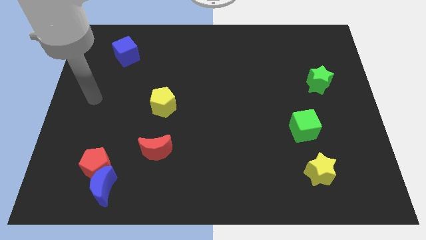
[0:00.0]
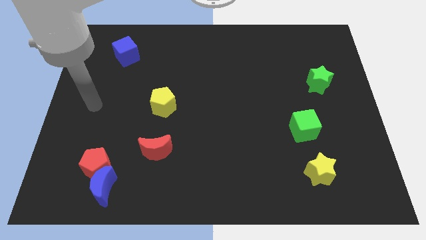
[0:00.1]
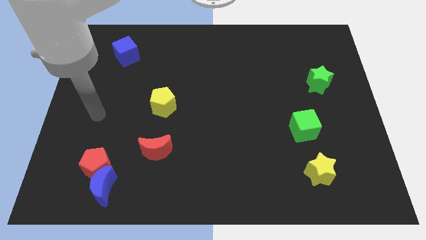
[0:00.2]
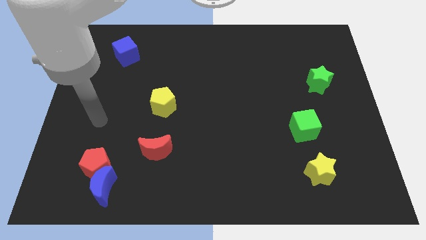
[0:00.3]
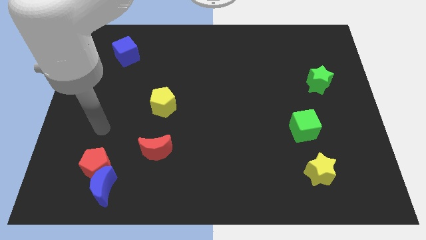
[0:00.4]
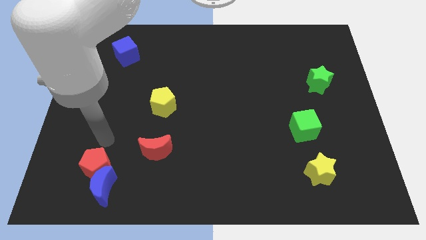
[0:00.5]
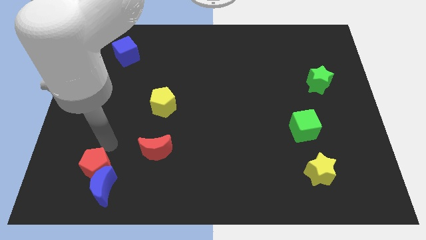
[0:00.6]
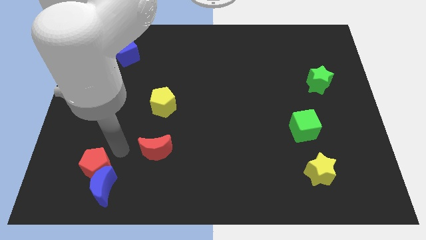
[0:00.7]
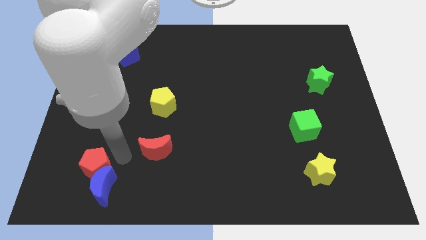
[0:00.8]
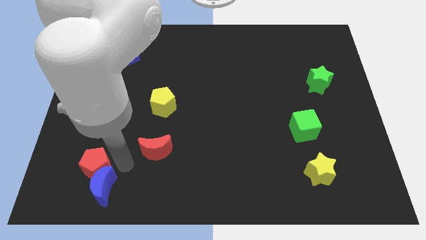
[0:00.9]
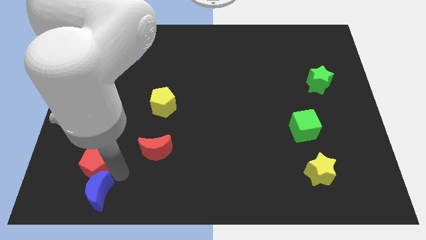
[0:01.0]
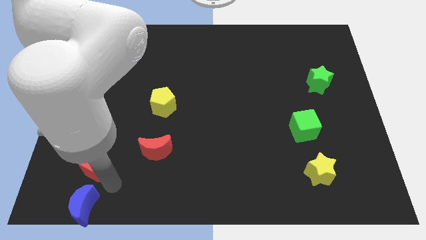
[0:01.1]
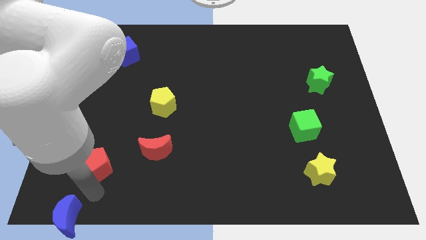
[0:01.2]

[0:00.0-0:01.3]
separate the red pentagon from the blue moon

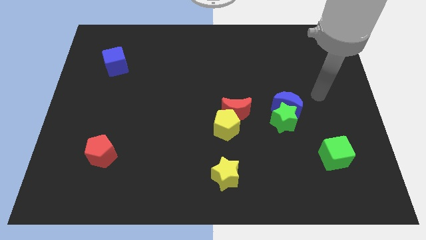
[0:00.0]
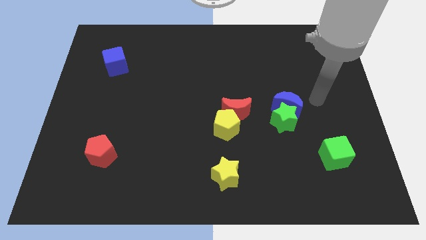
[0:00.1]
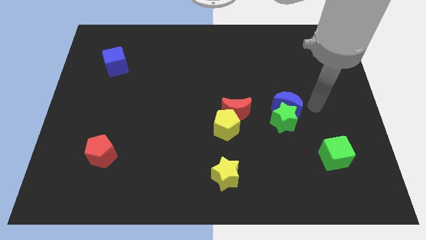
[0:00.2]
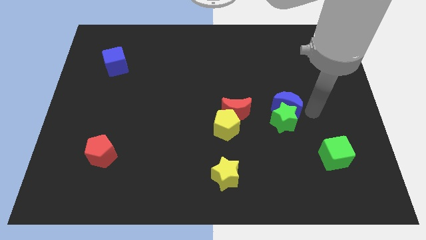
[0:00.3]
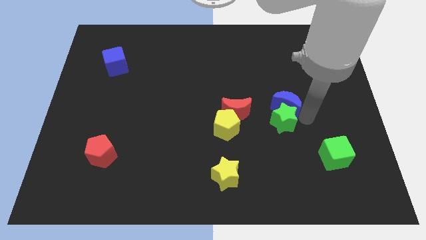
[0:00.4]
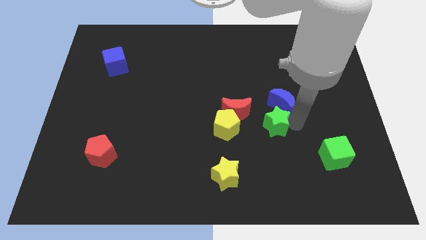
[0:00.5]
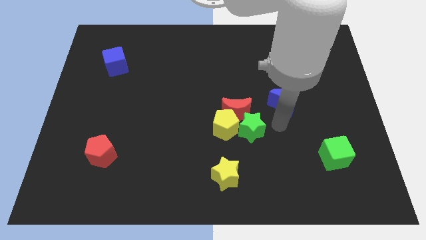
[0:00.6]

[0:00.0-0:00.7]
move the blue moon away from the green star

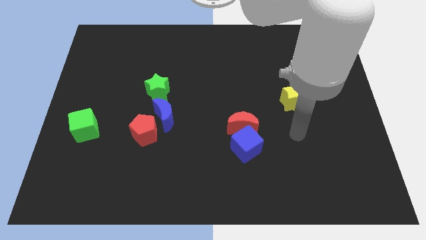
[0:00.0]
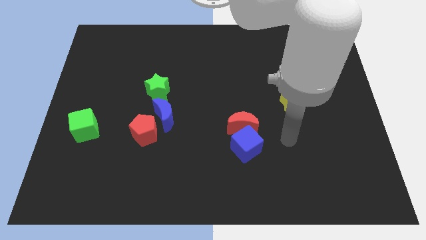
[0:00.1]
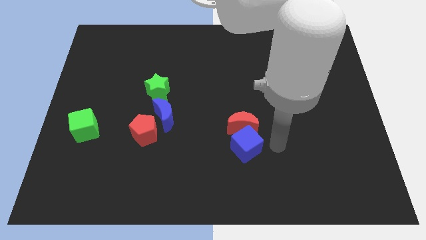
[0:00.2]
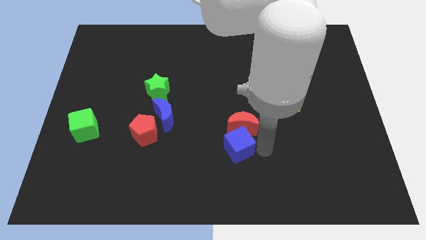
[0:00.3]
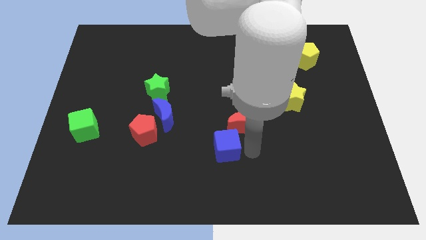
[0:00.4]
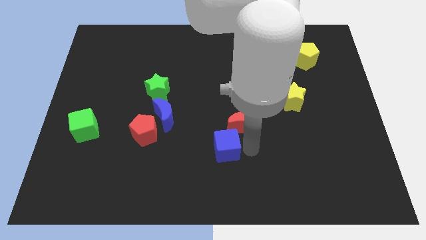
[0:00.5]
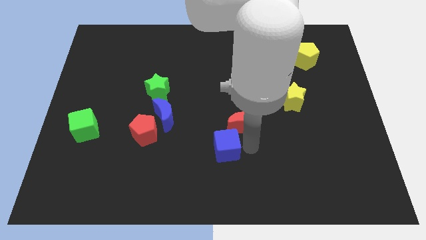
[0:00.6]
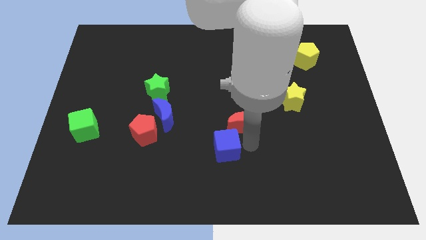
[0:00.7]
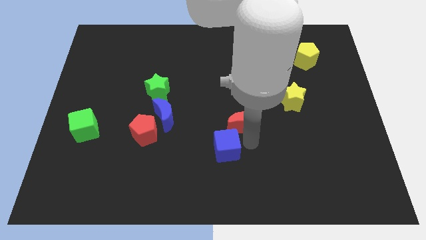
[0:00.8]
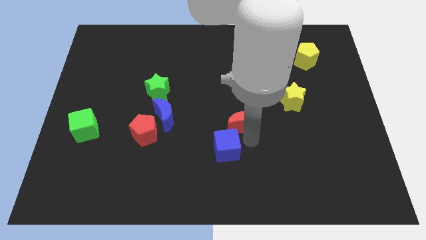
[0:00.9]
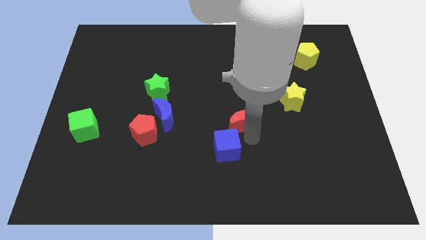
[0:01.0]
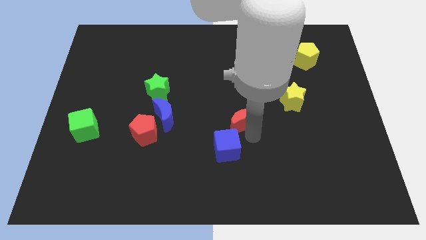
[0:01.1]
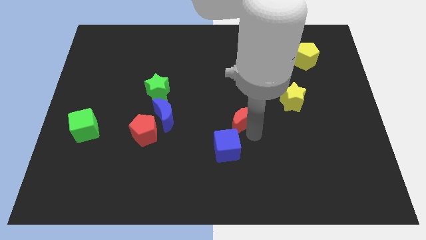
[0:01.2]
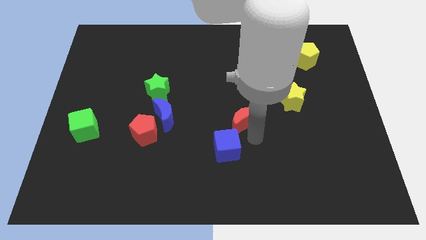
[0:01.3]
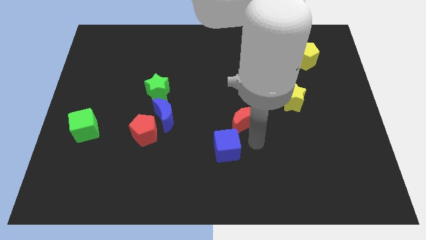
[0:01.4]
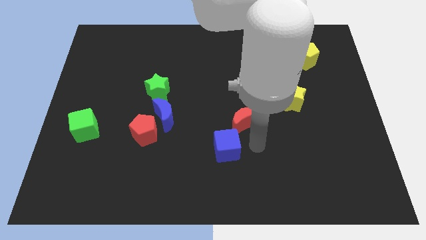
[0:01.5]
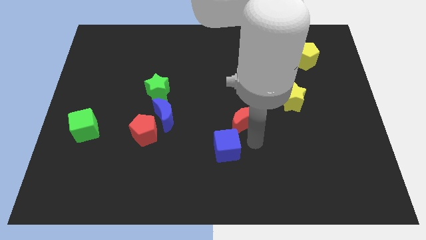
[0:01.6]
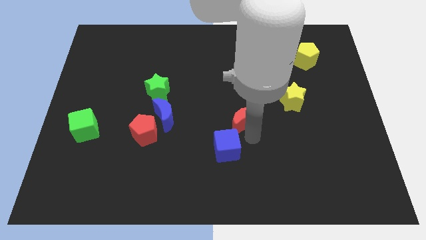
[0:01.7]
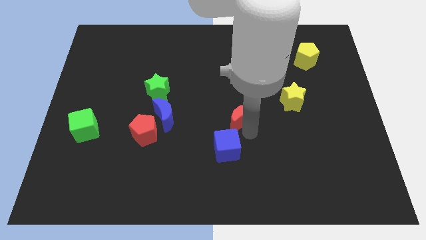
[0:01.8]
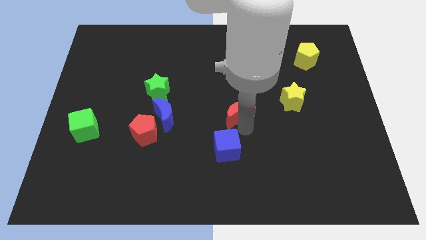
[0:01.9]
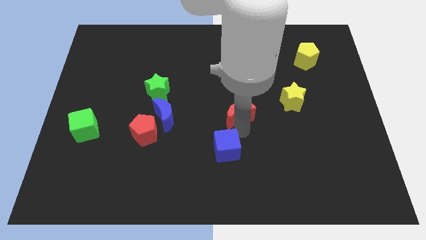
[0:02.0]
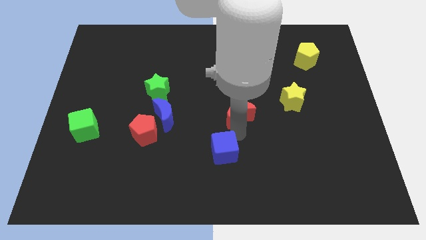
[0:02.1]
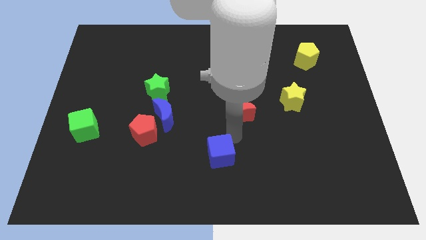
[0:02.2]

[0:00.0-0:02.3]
move the red moon away from the blue cube

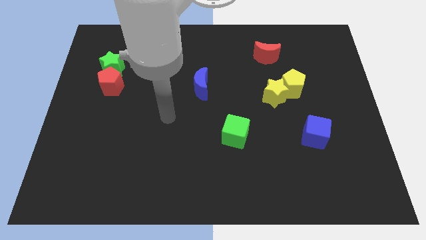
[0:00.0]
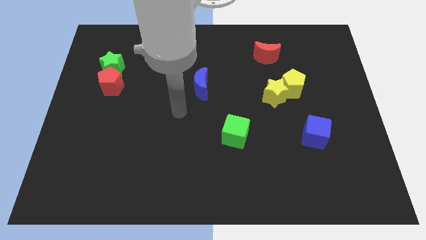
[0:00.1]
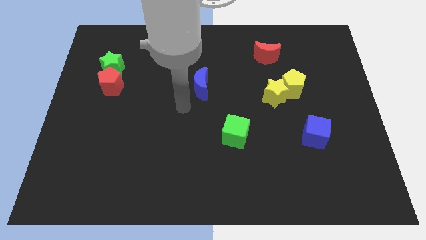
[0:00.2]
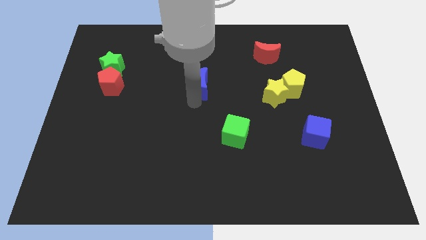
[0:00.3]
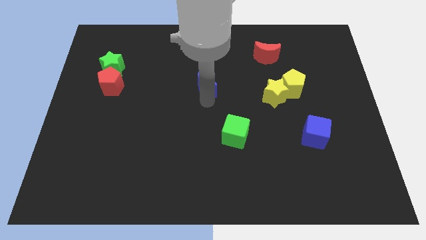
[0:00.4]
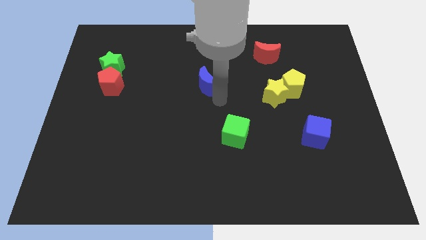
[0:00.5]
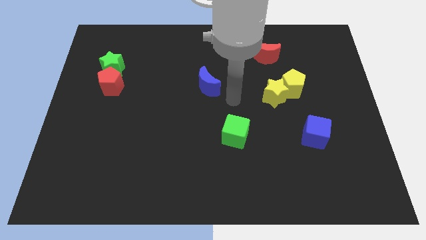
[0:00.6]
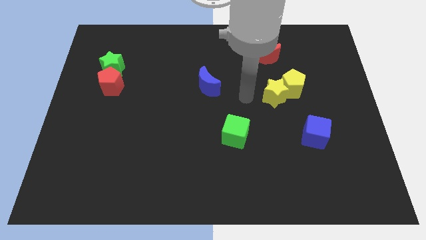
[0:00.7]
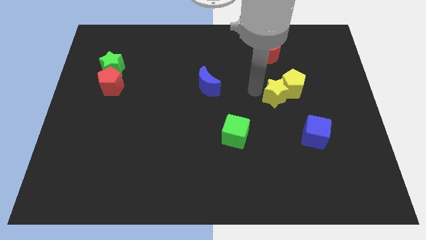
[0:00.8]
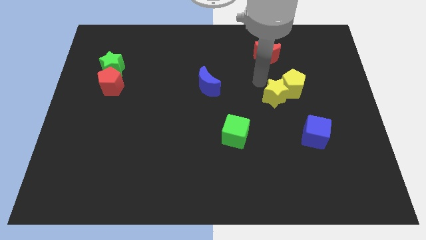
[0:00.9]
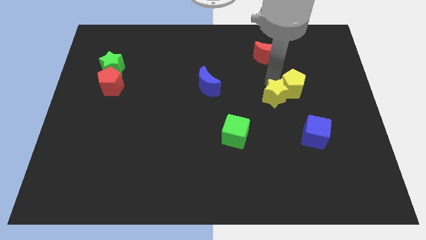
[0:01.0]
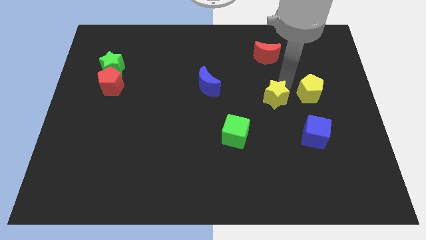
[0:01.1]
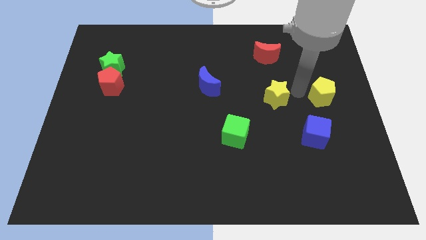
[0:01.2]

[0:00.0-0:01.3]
pull the yellow star apart from the yellow pentagon

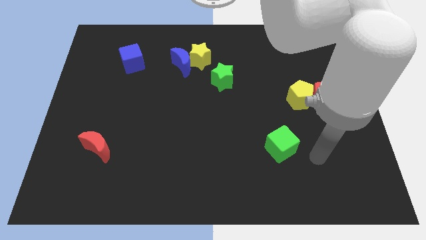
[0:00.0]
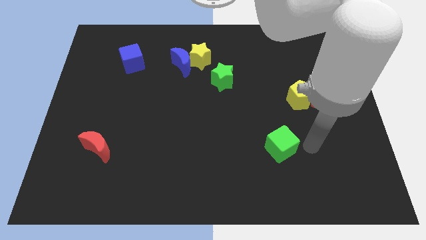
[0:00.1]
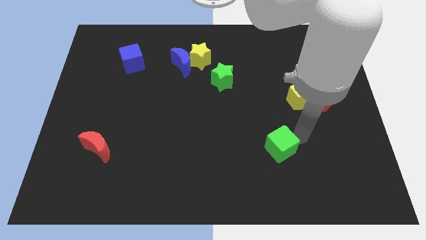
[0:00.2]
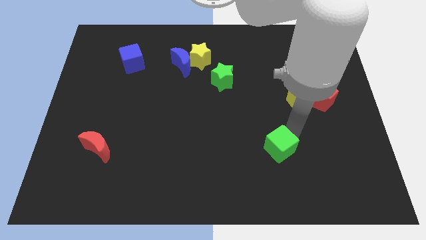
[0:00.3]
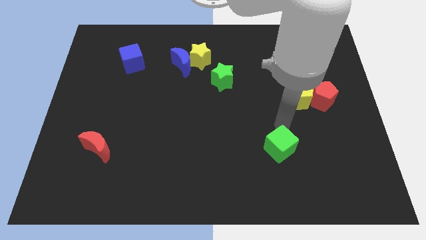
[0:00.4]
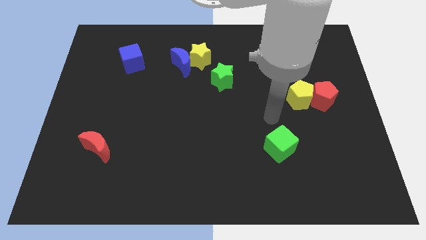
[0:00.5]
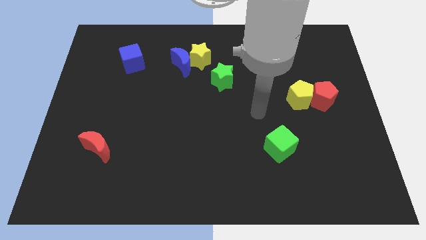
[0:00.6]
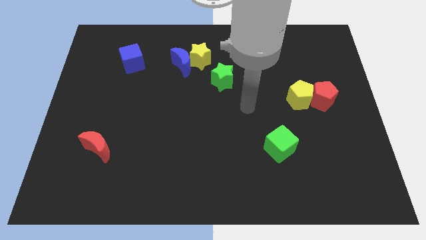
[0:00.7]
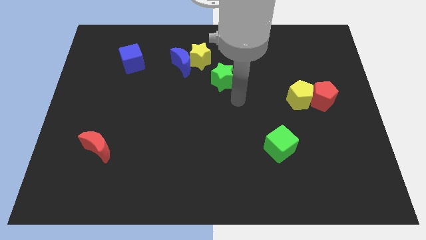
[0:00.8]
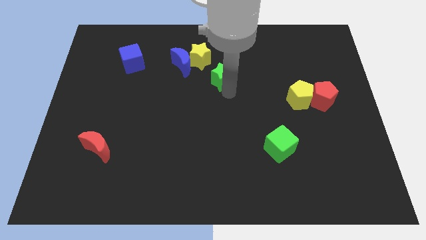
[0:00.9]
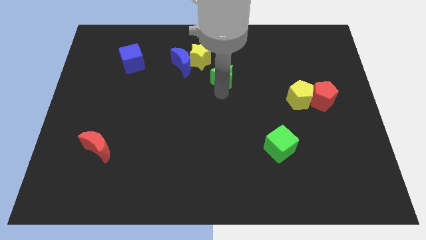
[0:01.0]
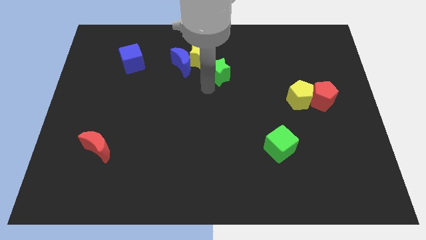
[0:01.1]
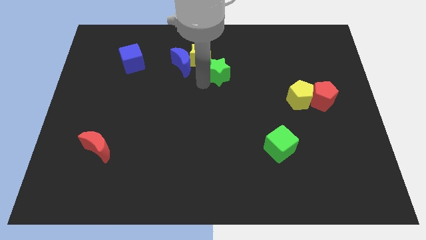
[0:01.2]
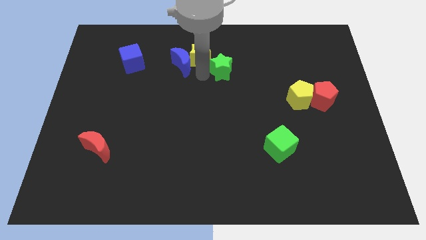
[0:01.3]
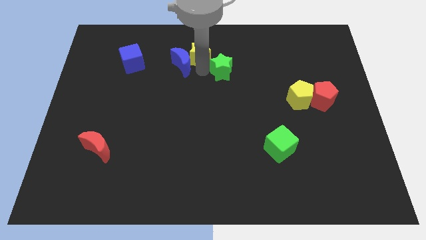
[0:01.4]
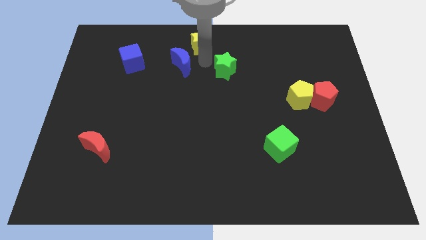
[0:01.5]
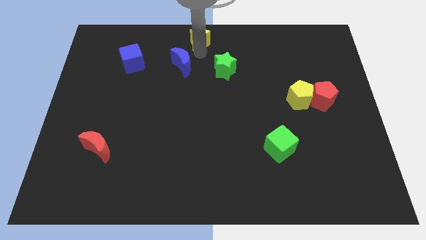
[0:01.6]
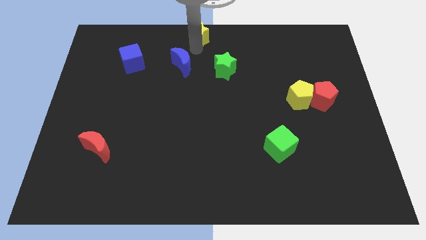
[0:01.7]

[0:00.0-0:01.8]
move the blue moon away from the yellow star

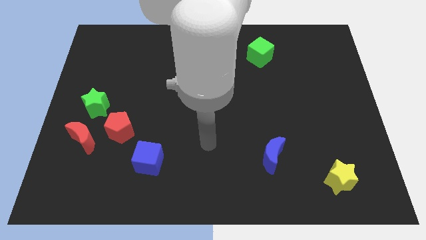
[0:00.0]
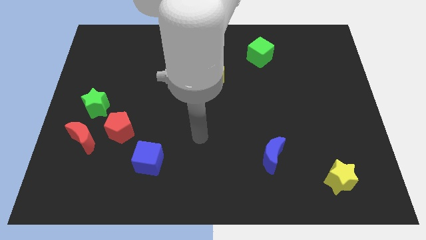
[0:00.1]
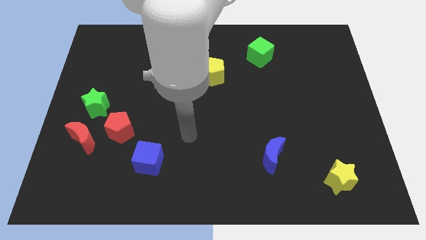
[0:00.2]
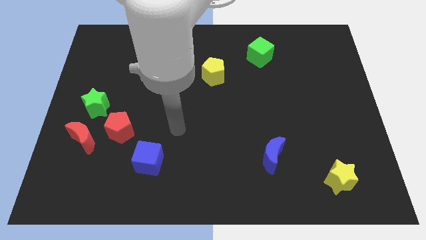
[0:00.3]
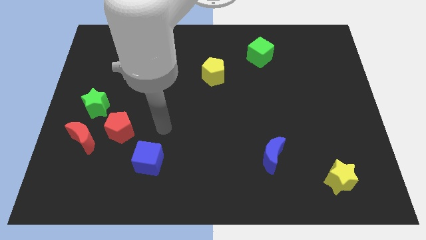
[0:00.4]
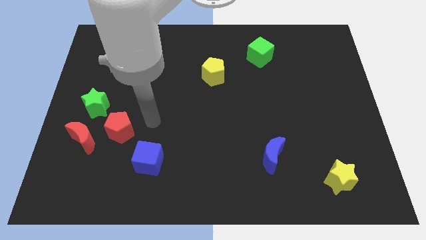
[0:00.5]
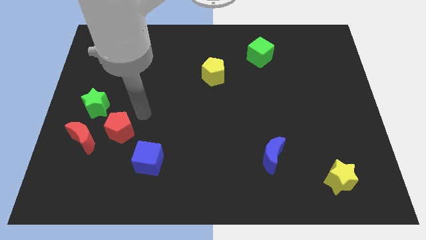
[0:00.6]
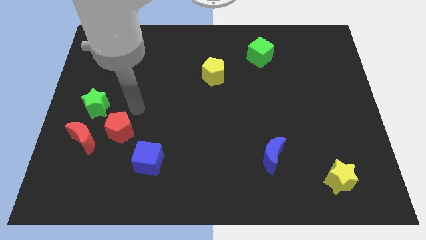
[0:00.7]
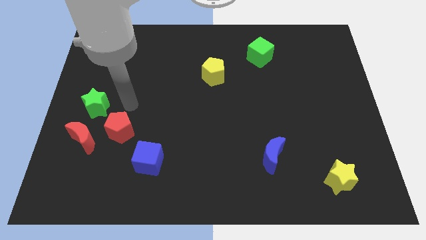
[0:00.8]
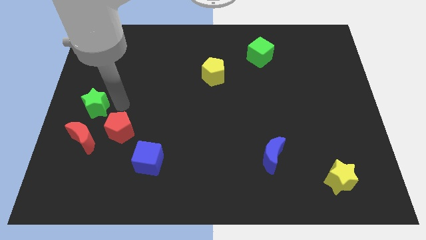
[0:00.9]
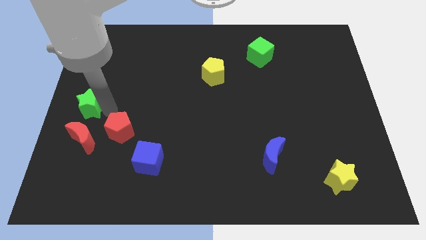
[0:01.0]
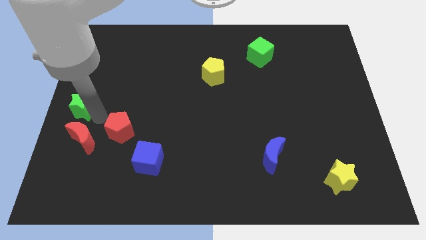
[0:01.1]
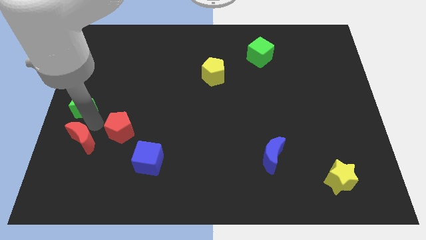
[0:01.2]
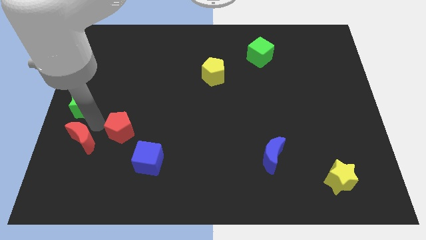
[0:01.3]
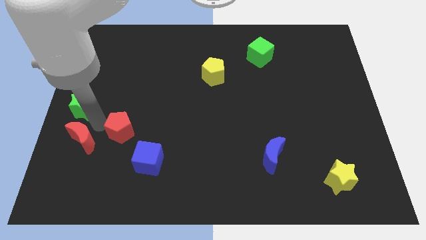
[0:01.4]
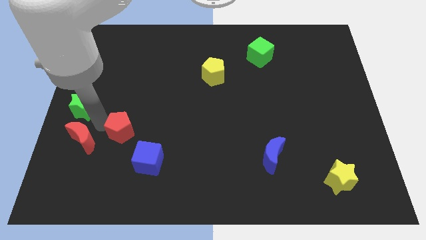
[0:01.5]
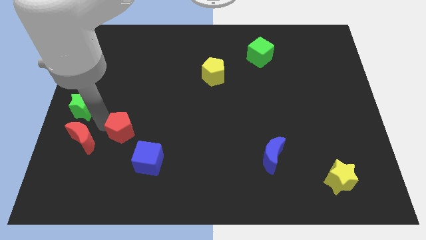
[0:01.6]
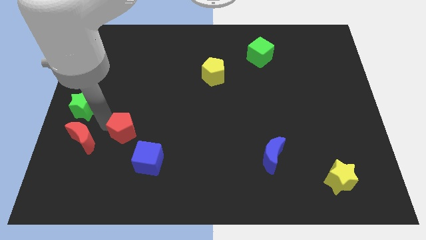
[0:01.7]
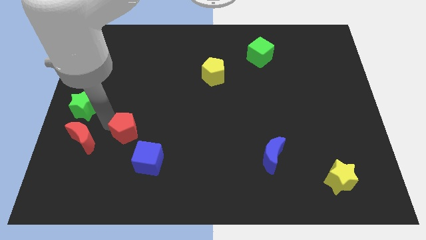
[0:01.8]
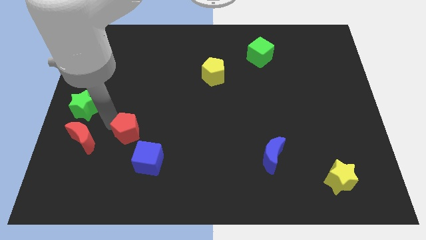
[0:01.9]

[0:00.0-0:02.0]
move the red pentagon away from the red moon and green star
